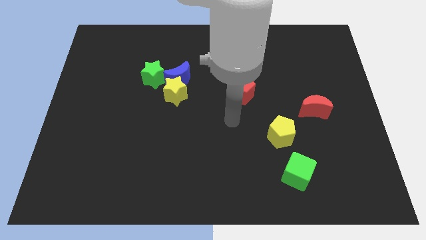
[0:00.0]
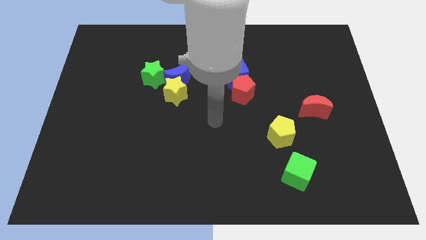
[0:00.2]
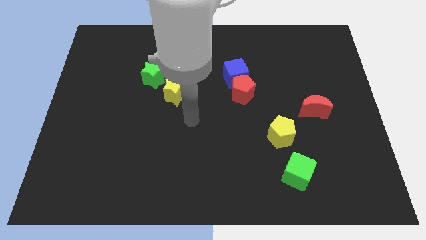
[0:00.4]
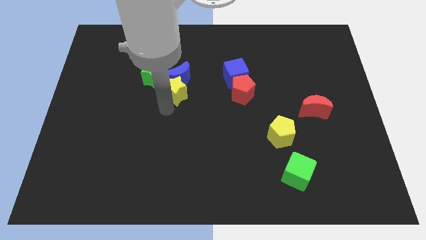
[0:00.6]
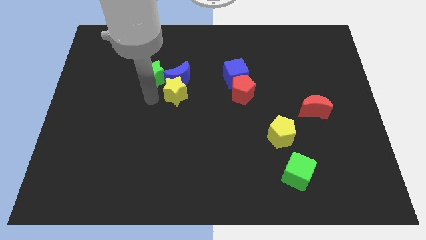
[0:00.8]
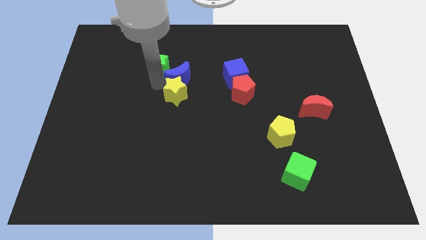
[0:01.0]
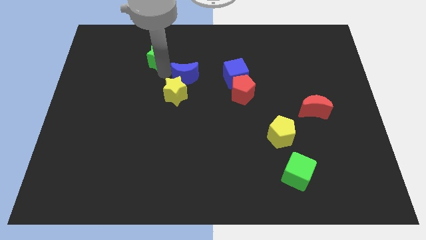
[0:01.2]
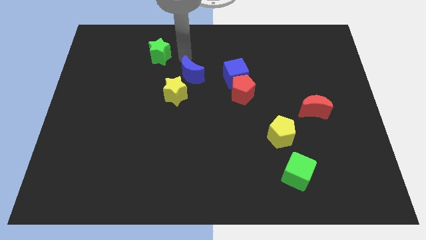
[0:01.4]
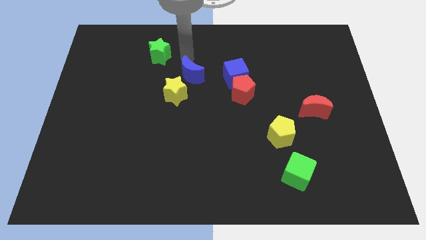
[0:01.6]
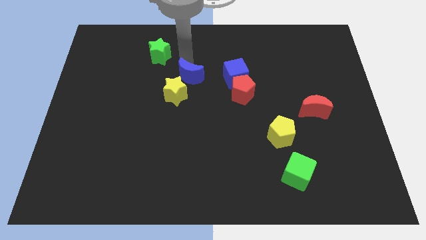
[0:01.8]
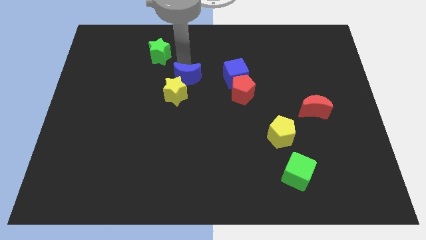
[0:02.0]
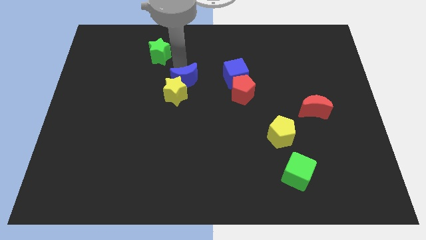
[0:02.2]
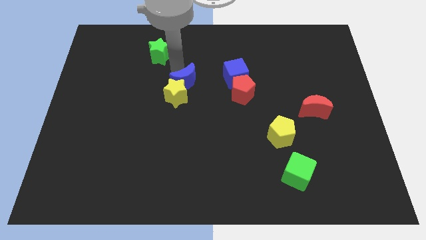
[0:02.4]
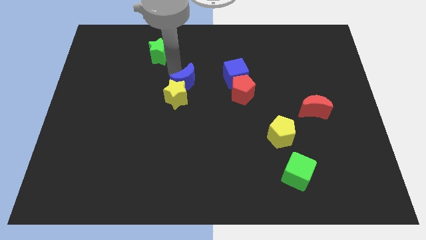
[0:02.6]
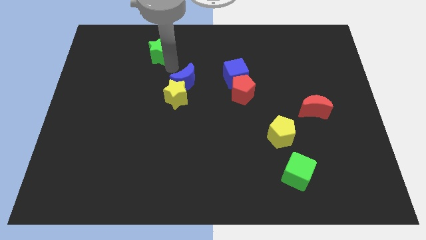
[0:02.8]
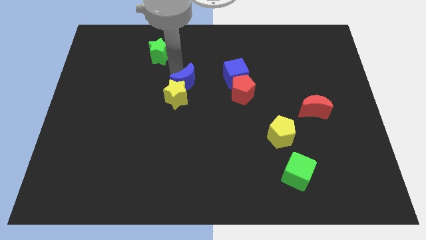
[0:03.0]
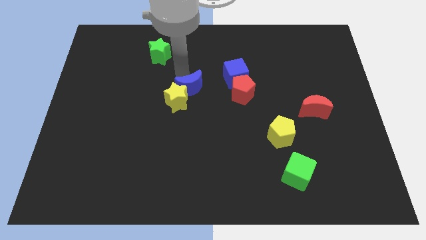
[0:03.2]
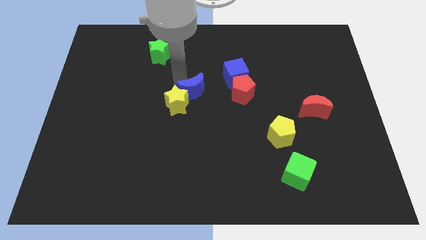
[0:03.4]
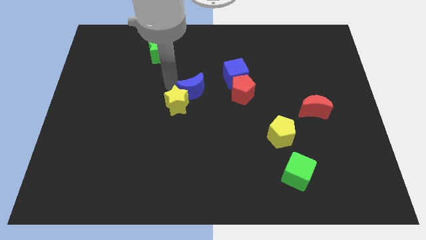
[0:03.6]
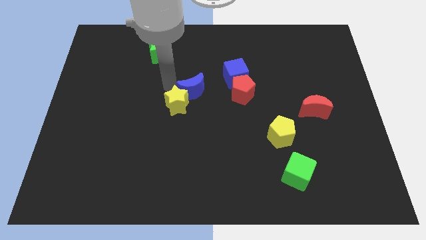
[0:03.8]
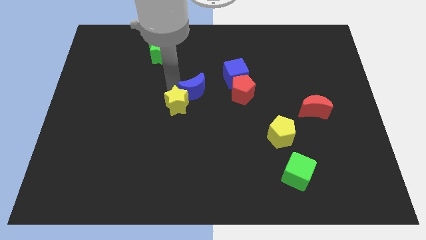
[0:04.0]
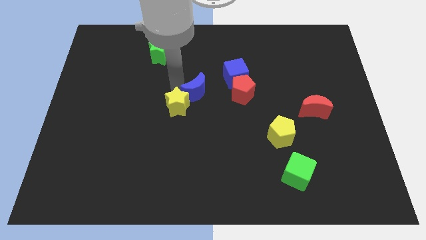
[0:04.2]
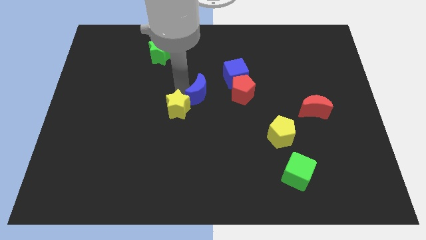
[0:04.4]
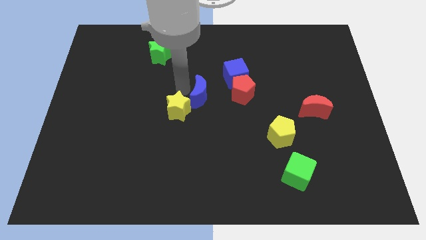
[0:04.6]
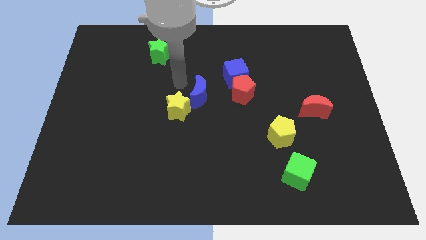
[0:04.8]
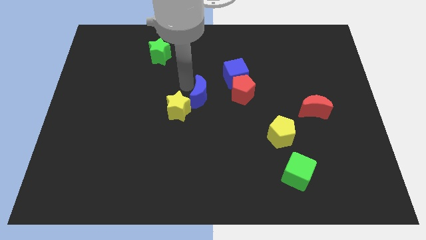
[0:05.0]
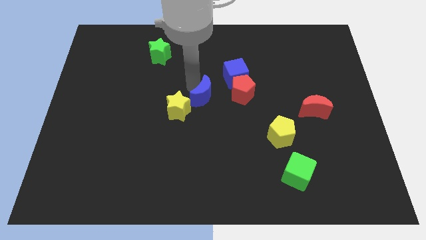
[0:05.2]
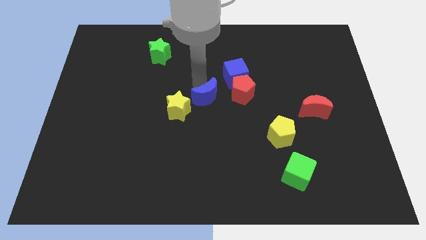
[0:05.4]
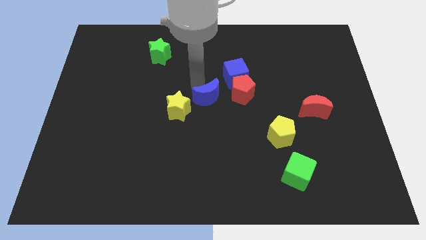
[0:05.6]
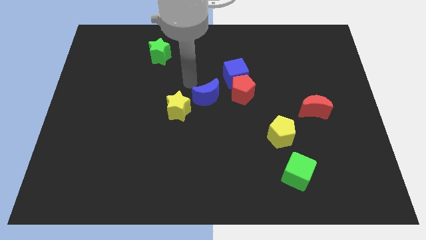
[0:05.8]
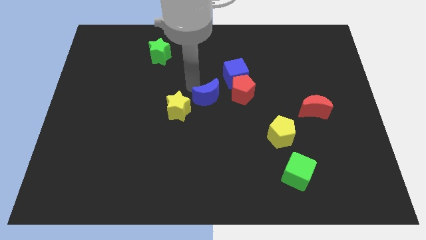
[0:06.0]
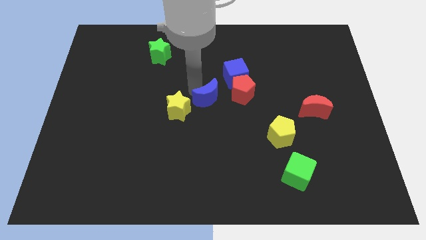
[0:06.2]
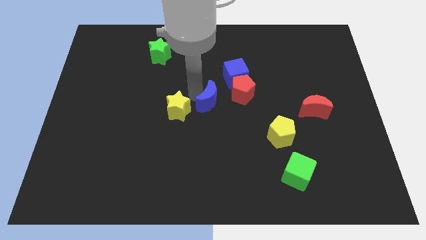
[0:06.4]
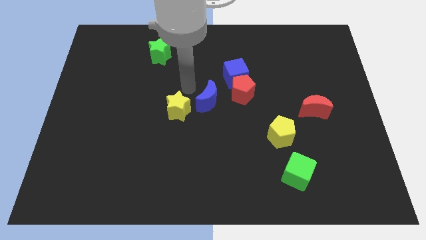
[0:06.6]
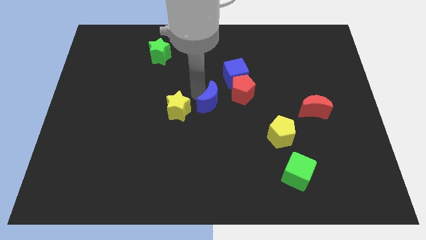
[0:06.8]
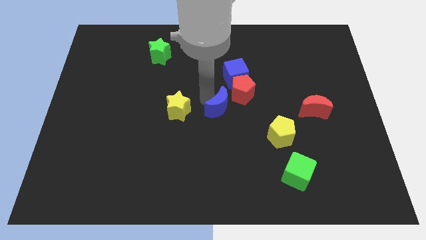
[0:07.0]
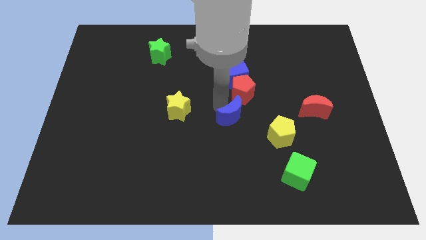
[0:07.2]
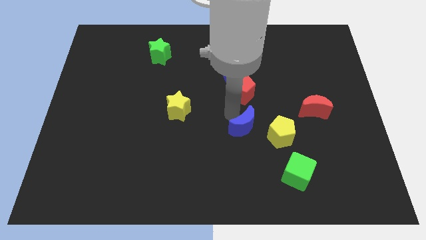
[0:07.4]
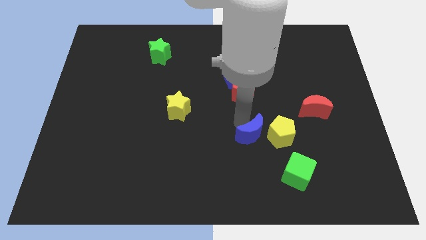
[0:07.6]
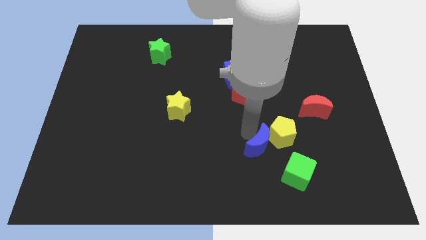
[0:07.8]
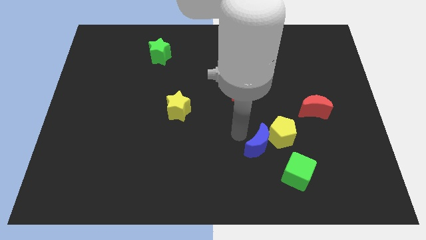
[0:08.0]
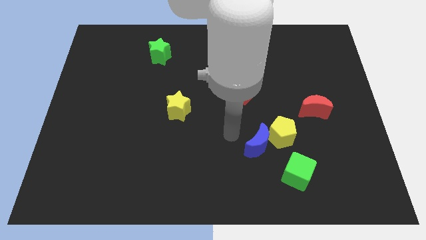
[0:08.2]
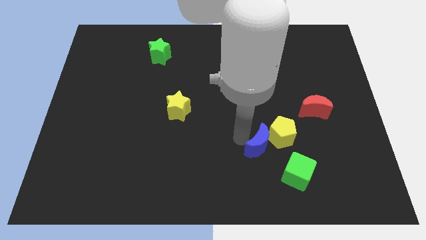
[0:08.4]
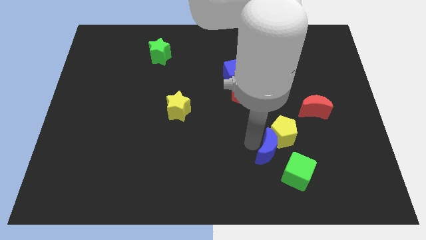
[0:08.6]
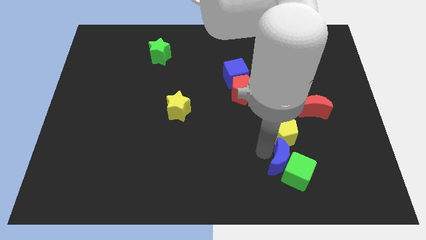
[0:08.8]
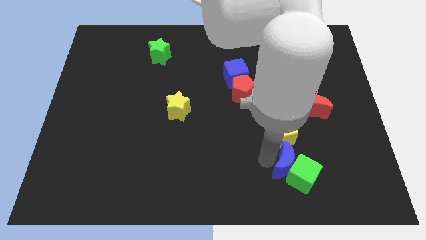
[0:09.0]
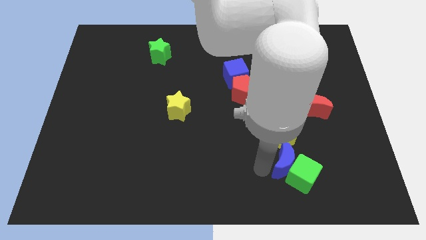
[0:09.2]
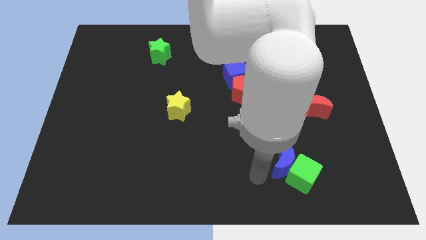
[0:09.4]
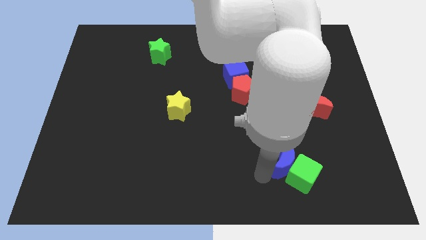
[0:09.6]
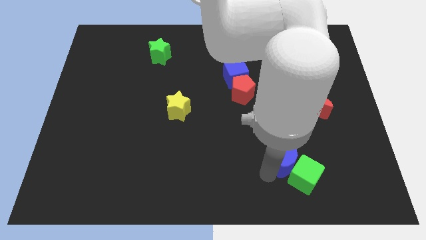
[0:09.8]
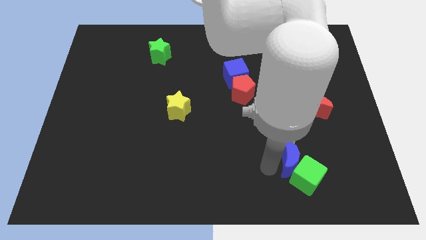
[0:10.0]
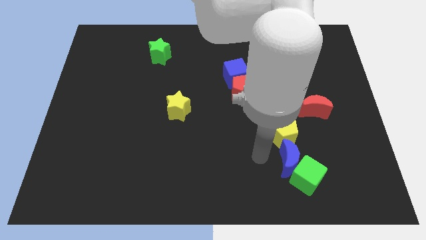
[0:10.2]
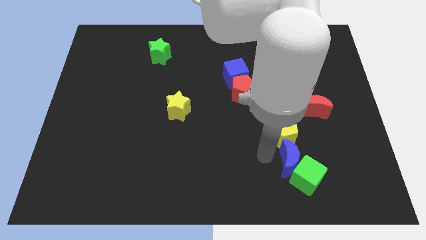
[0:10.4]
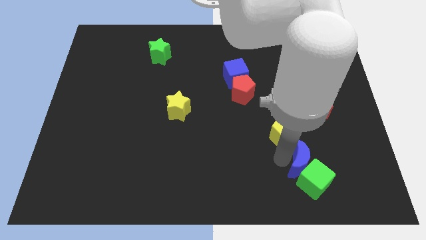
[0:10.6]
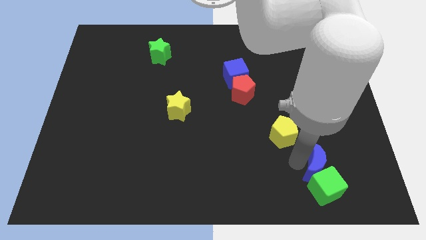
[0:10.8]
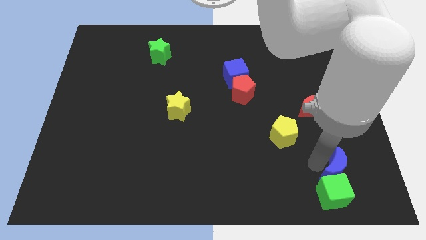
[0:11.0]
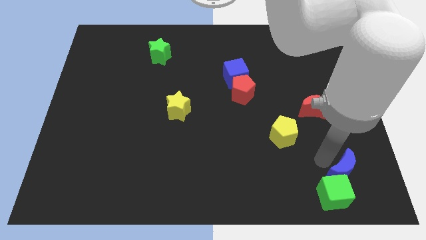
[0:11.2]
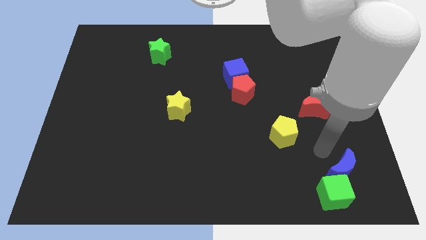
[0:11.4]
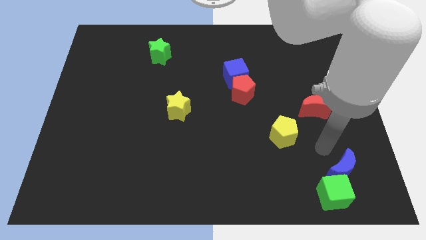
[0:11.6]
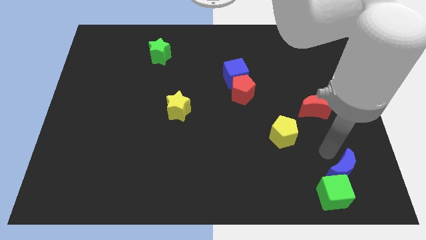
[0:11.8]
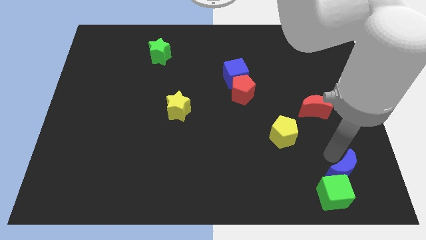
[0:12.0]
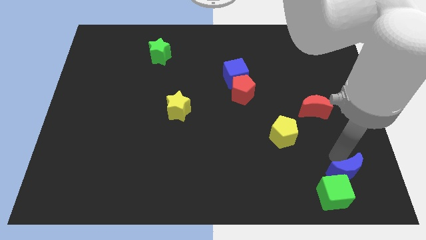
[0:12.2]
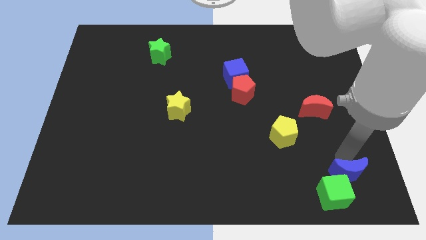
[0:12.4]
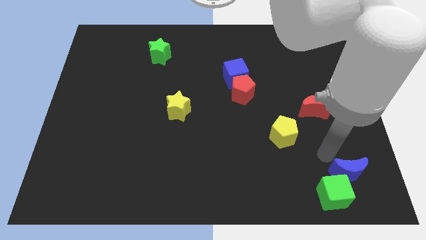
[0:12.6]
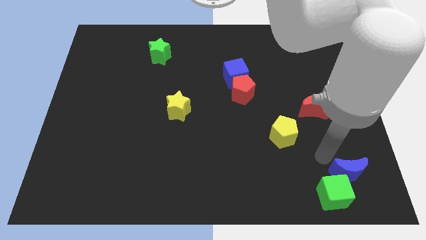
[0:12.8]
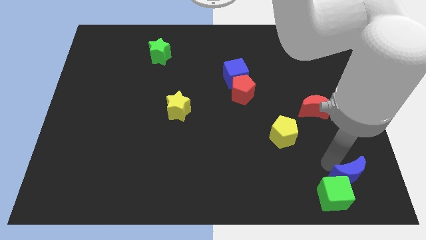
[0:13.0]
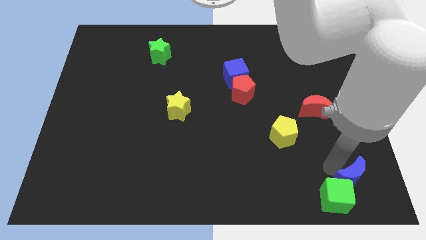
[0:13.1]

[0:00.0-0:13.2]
move the blue moon to the bottom right of the board

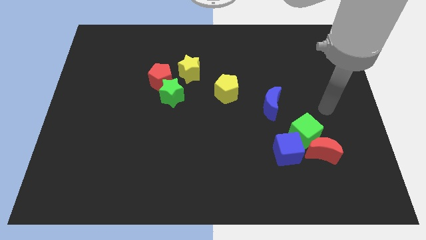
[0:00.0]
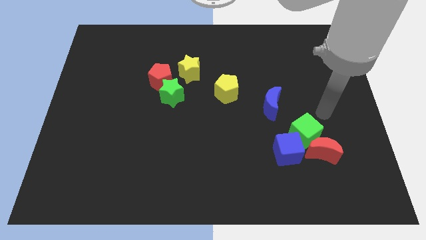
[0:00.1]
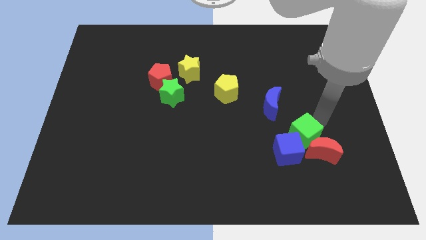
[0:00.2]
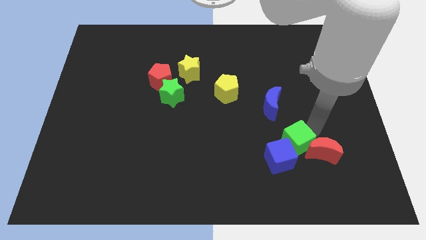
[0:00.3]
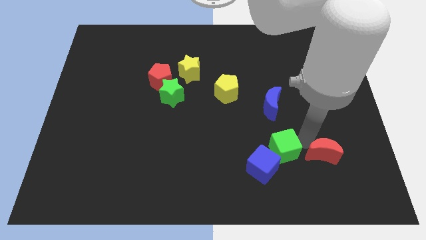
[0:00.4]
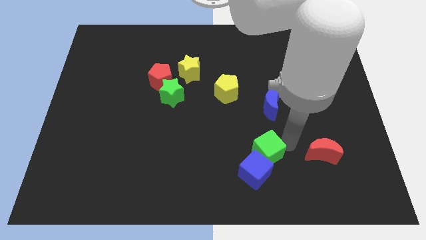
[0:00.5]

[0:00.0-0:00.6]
put the blue cube to the bottom
